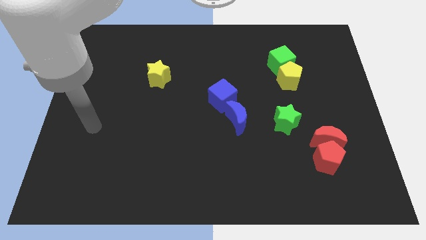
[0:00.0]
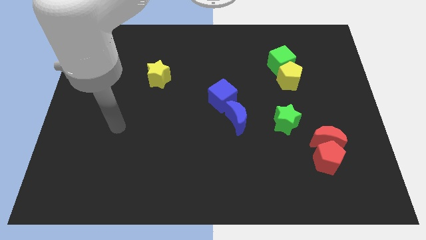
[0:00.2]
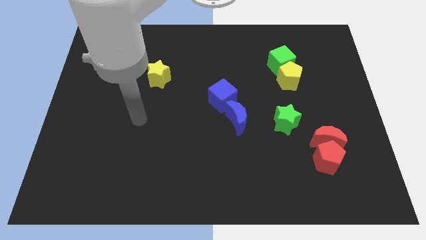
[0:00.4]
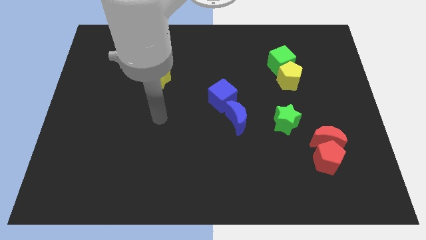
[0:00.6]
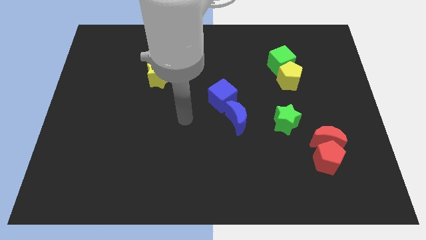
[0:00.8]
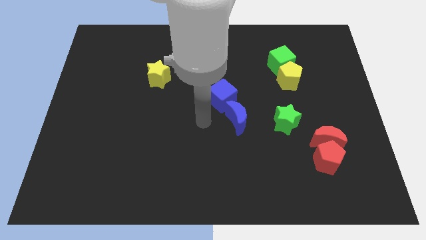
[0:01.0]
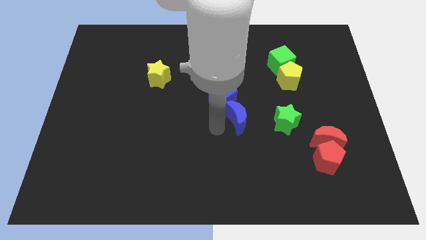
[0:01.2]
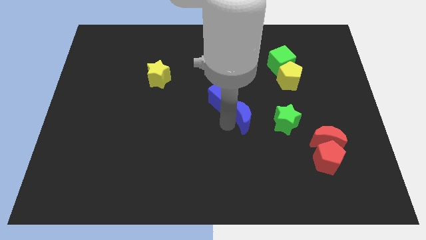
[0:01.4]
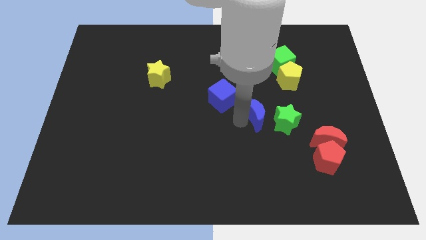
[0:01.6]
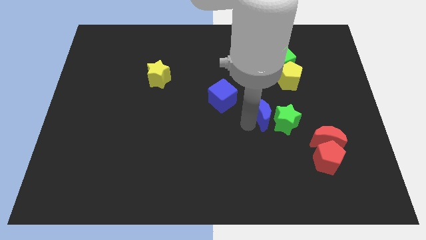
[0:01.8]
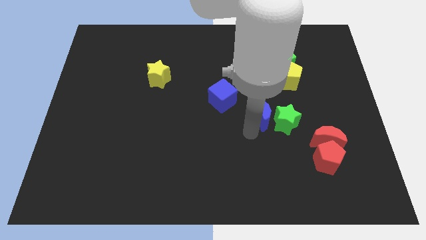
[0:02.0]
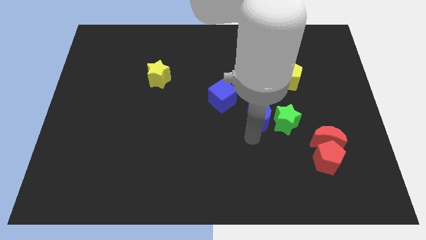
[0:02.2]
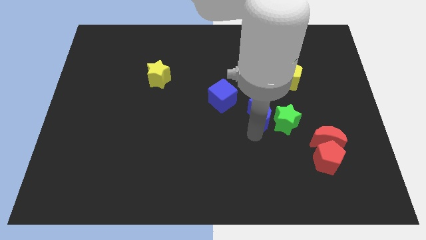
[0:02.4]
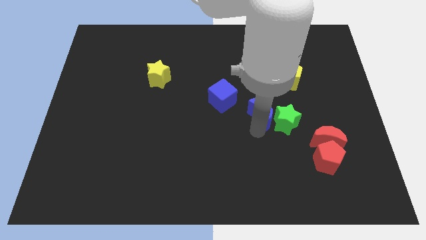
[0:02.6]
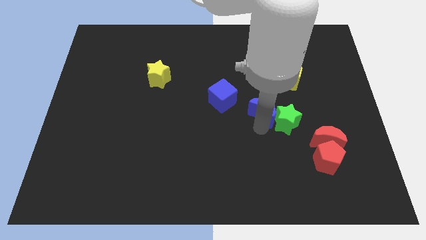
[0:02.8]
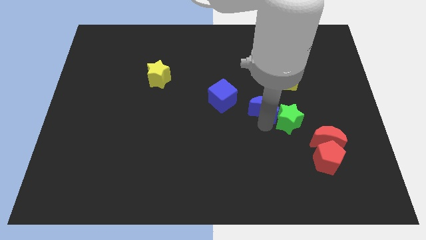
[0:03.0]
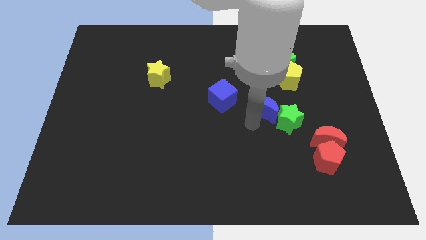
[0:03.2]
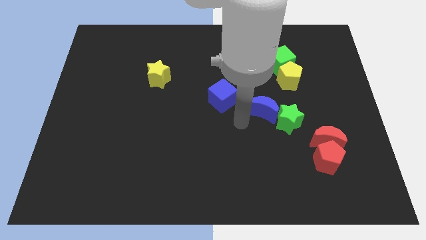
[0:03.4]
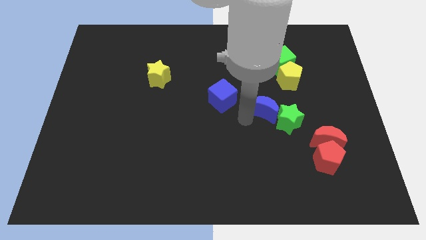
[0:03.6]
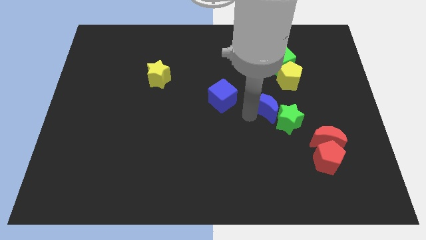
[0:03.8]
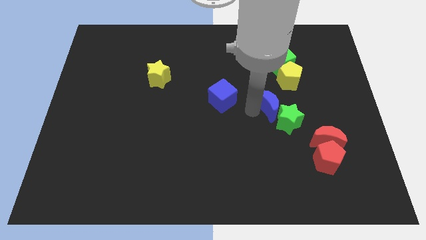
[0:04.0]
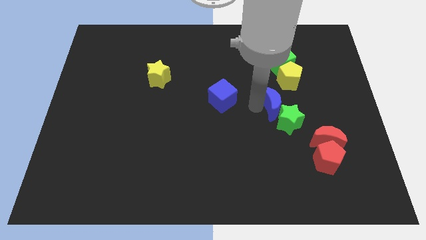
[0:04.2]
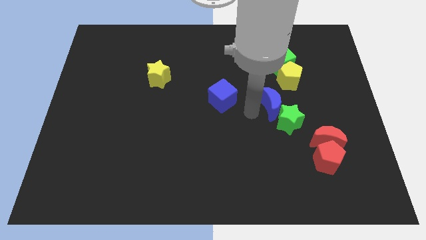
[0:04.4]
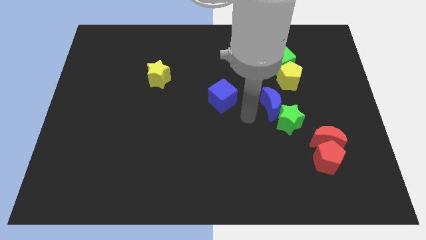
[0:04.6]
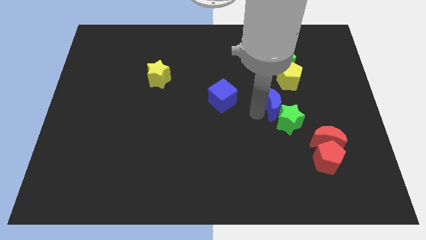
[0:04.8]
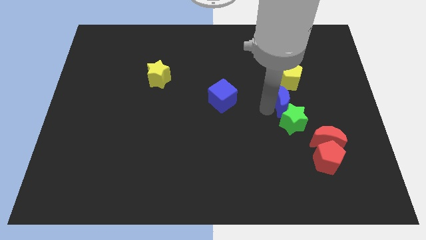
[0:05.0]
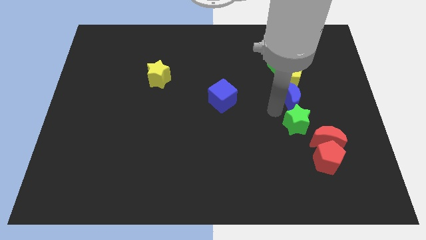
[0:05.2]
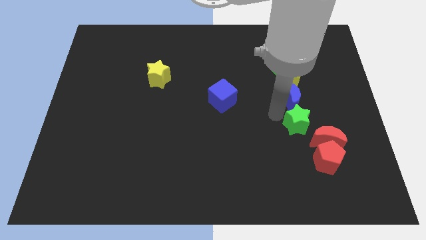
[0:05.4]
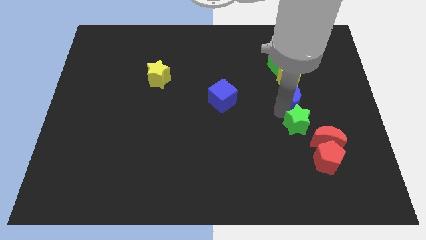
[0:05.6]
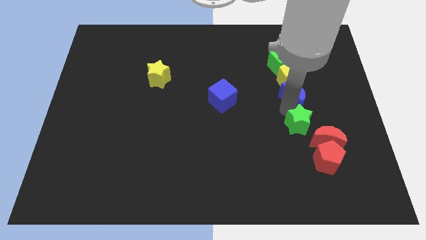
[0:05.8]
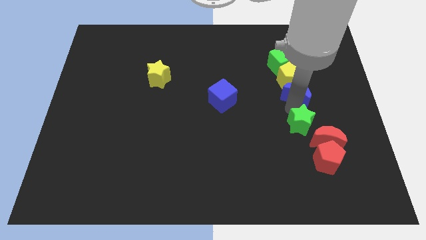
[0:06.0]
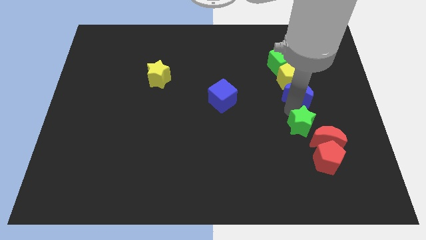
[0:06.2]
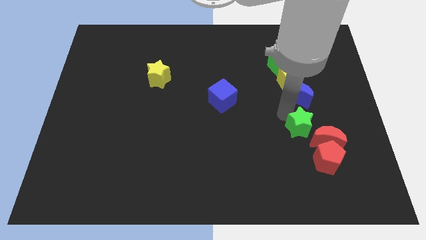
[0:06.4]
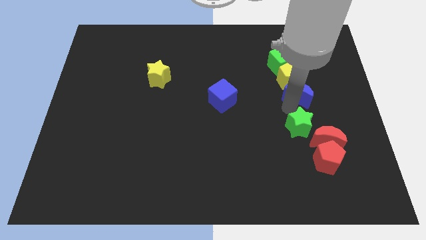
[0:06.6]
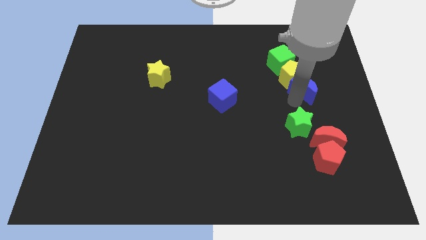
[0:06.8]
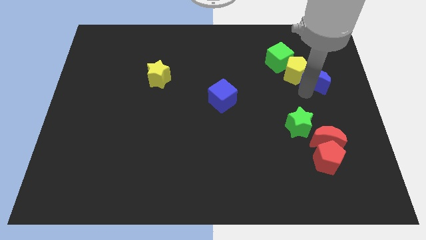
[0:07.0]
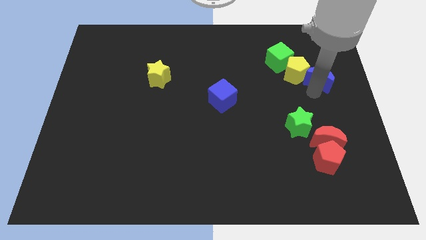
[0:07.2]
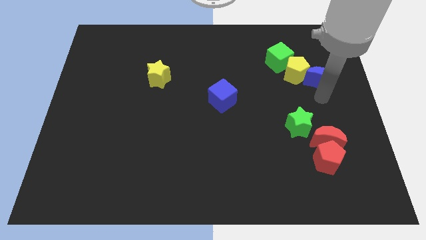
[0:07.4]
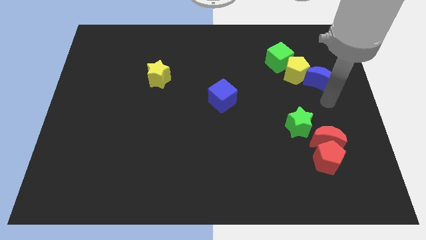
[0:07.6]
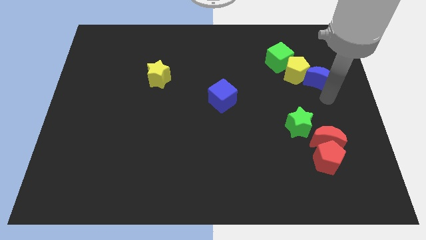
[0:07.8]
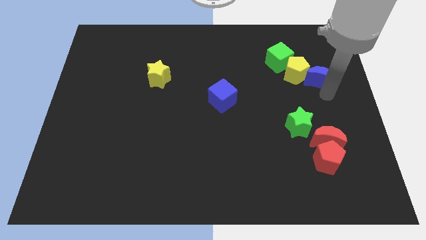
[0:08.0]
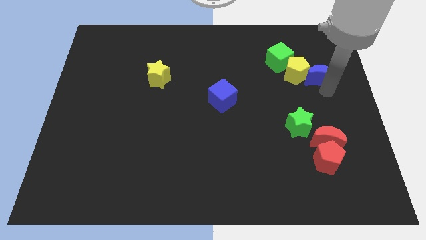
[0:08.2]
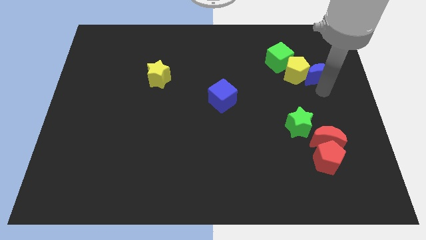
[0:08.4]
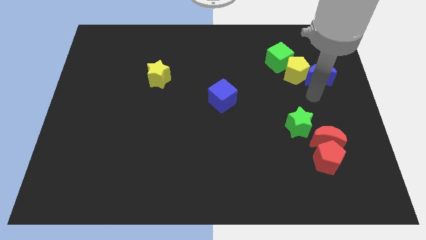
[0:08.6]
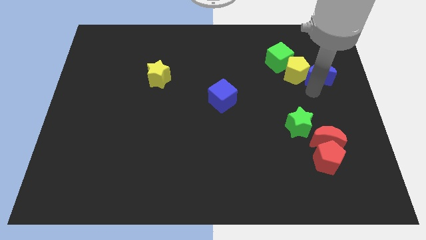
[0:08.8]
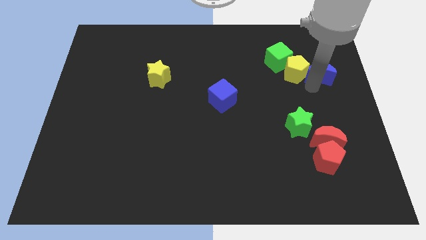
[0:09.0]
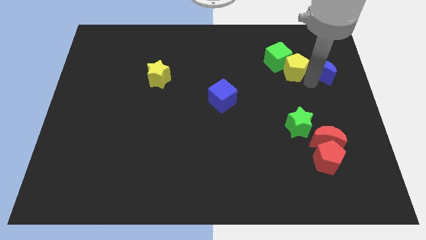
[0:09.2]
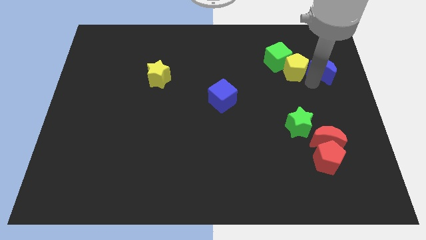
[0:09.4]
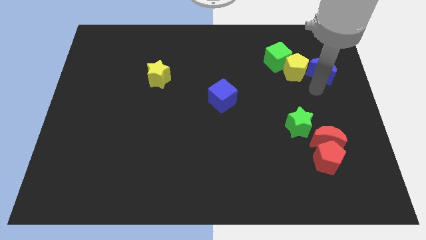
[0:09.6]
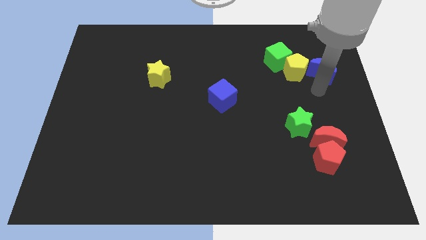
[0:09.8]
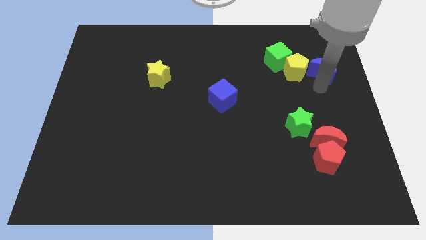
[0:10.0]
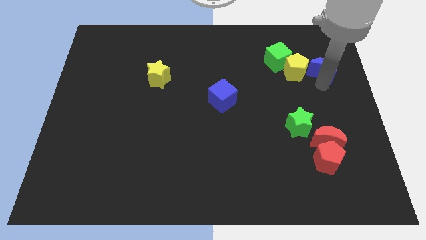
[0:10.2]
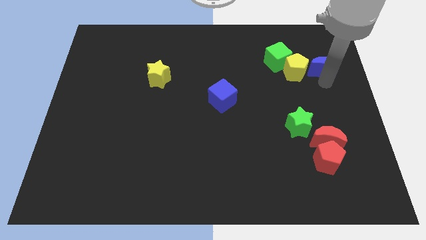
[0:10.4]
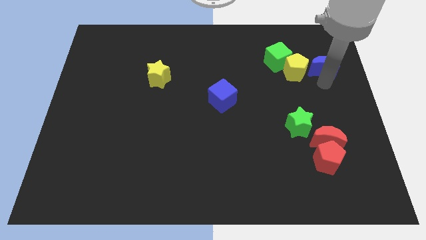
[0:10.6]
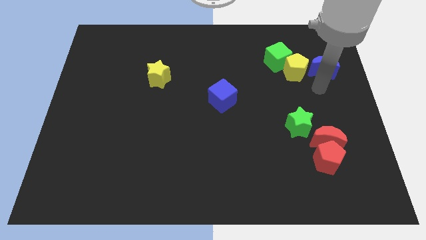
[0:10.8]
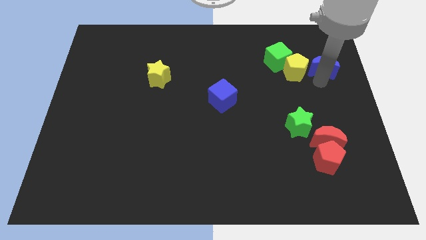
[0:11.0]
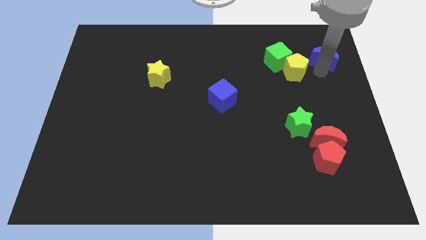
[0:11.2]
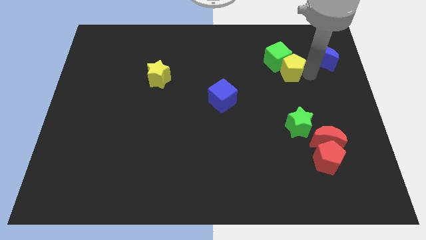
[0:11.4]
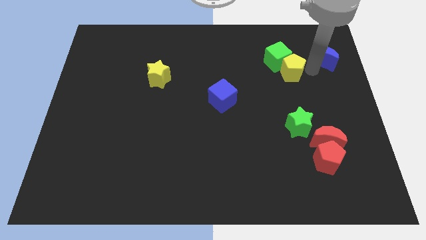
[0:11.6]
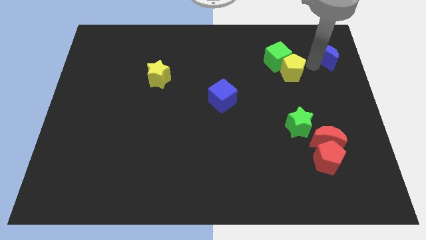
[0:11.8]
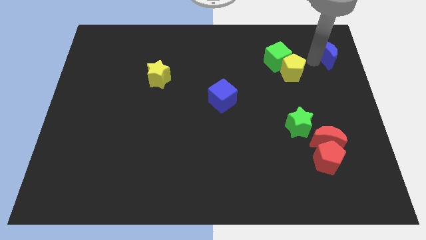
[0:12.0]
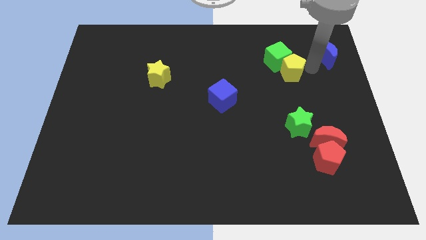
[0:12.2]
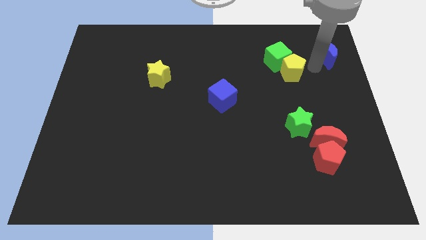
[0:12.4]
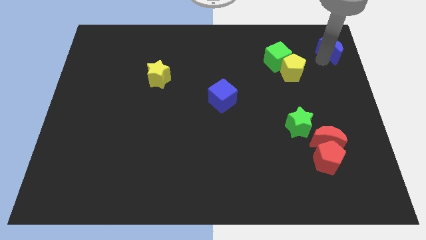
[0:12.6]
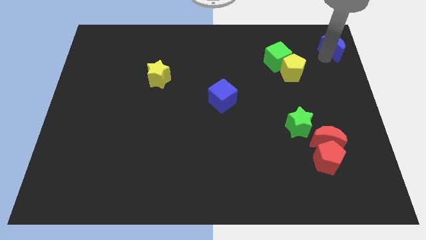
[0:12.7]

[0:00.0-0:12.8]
slide the blue moon to the top right
